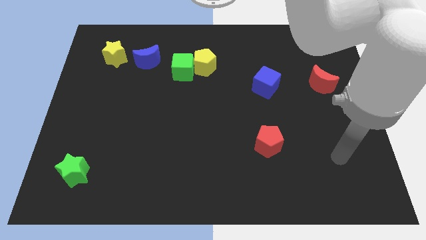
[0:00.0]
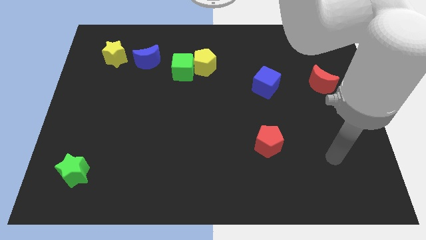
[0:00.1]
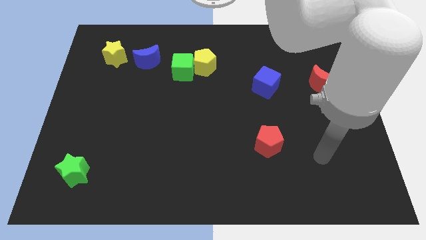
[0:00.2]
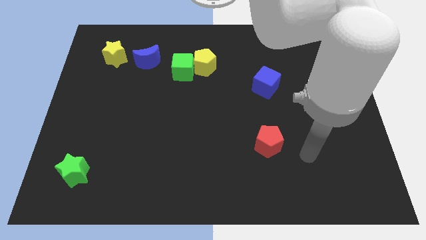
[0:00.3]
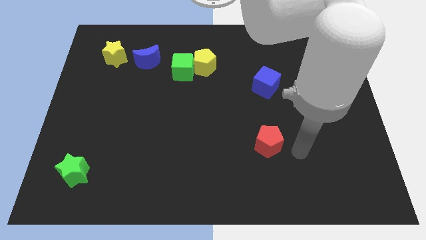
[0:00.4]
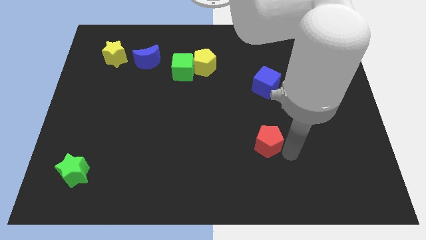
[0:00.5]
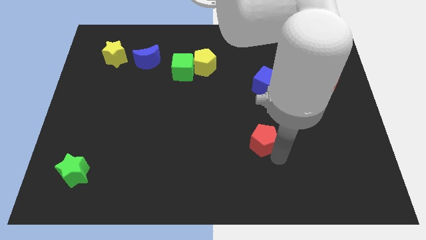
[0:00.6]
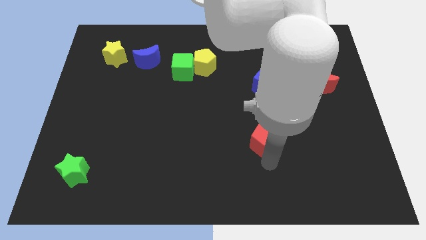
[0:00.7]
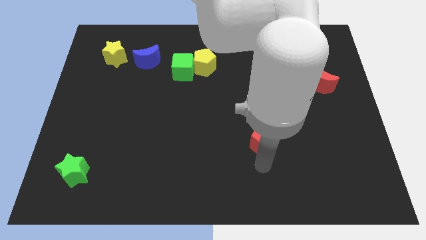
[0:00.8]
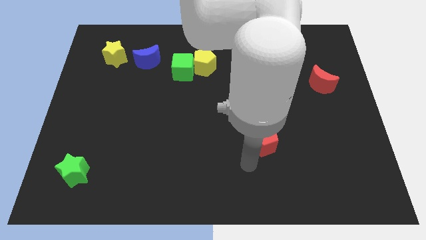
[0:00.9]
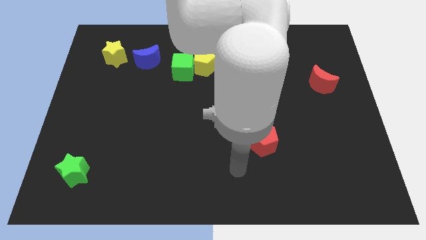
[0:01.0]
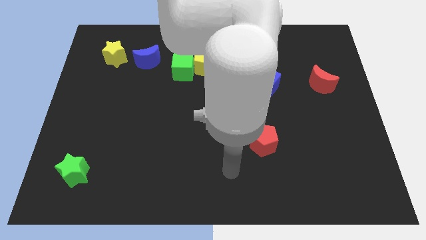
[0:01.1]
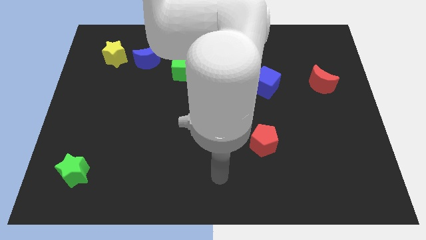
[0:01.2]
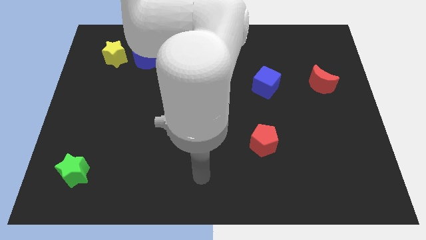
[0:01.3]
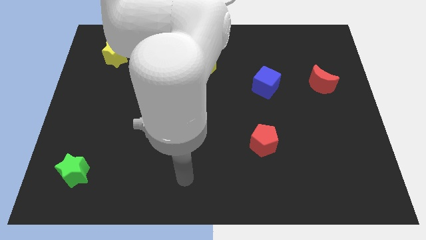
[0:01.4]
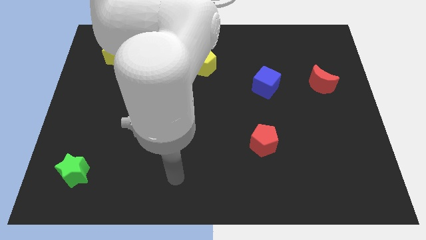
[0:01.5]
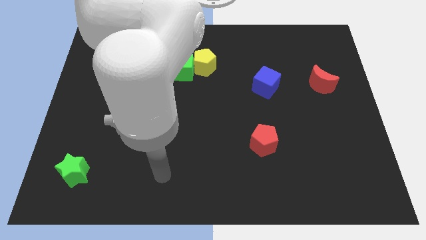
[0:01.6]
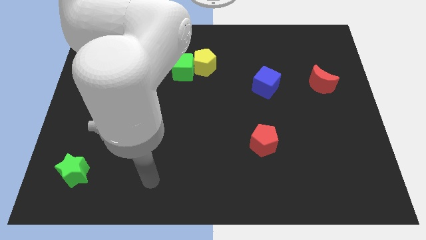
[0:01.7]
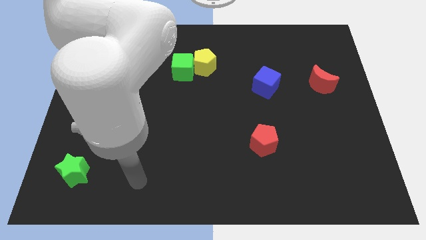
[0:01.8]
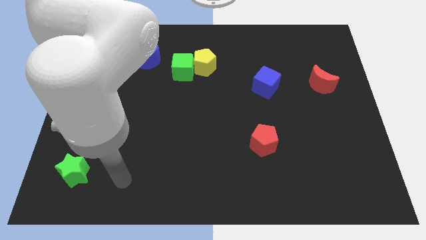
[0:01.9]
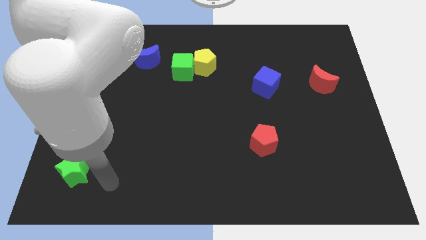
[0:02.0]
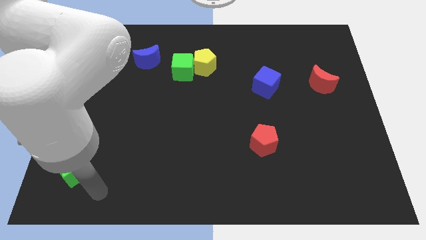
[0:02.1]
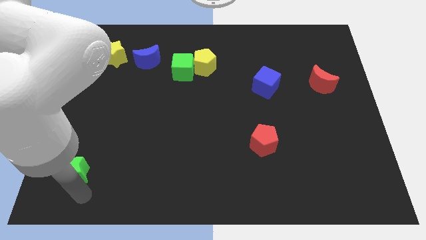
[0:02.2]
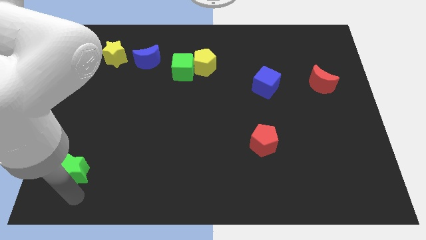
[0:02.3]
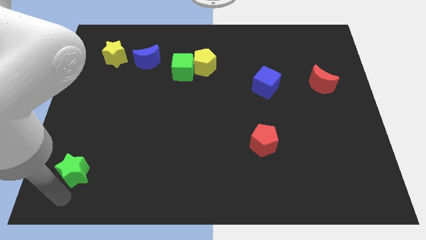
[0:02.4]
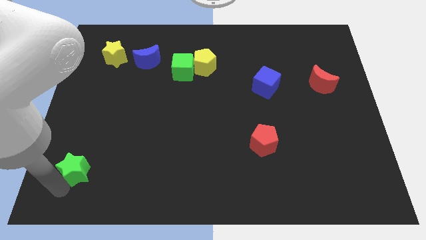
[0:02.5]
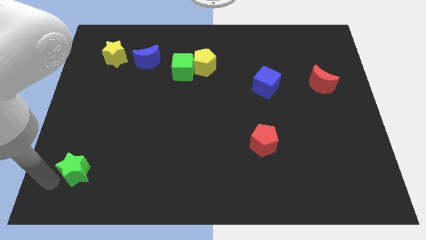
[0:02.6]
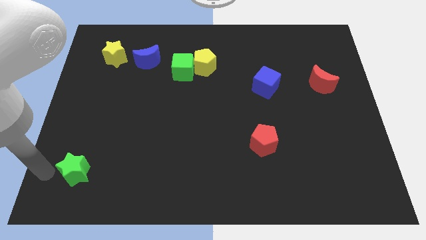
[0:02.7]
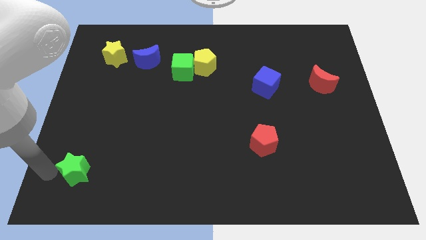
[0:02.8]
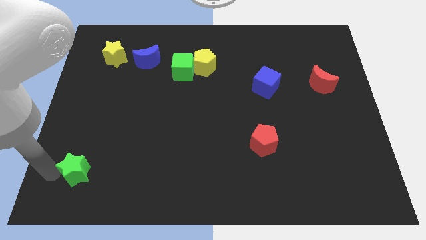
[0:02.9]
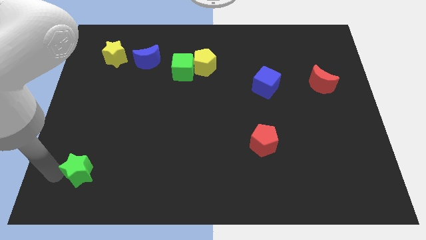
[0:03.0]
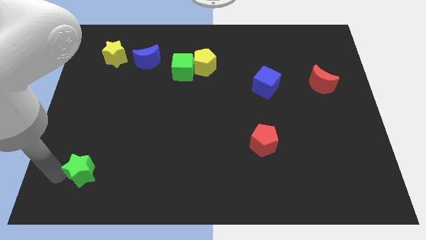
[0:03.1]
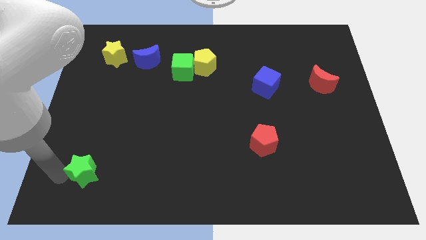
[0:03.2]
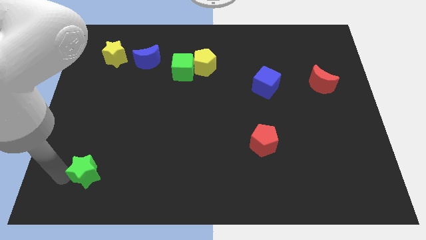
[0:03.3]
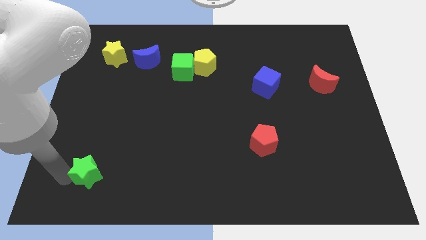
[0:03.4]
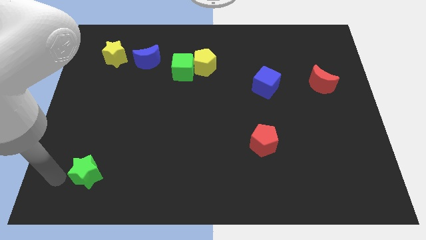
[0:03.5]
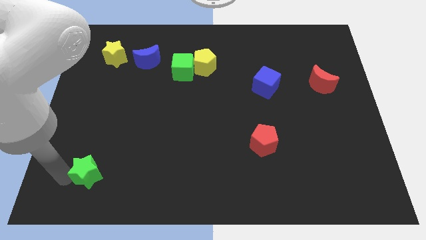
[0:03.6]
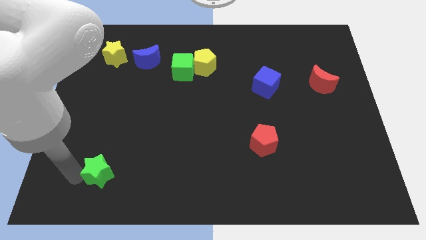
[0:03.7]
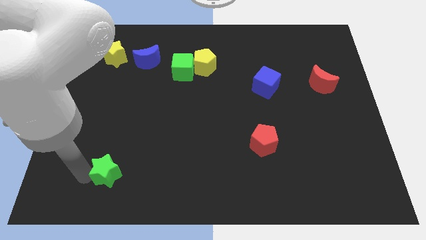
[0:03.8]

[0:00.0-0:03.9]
slide the green star a bit to the right

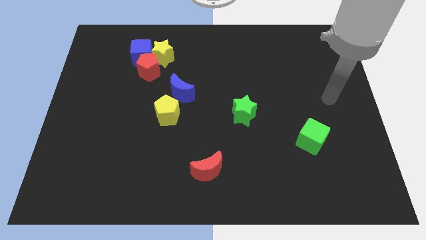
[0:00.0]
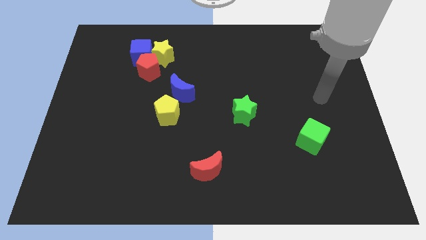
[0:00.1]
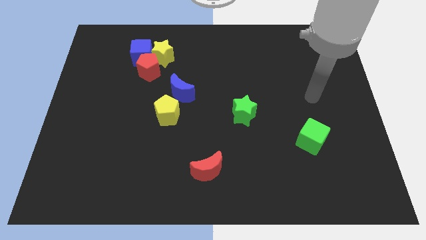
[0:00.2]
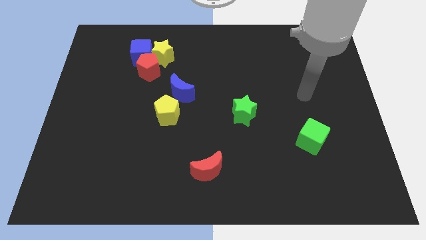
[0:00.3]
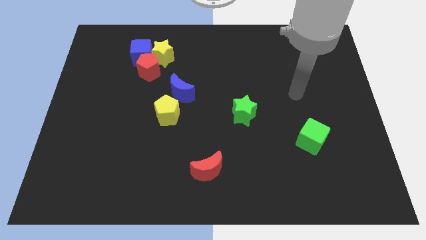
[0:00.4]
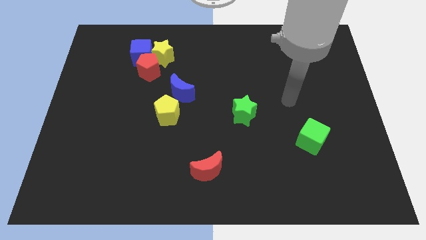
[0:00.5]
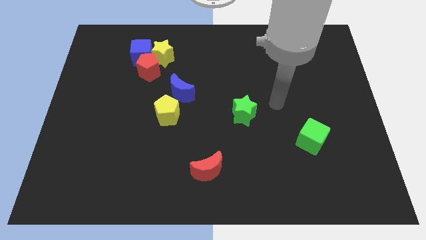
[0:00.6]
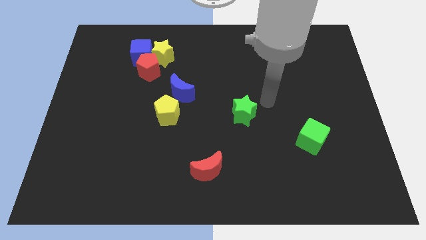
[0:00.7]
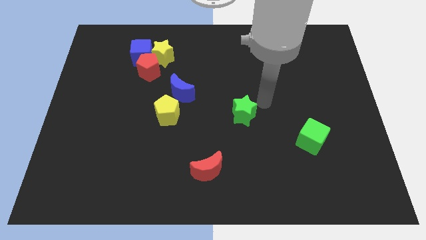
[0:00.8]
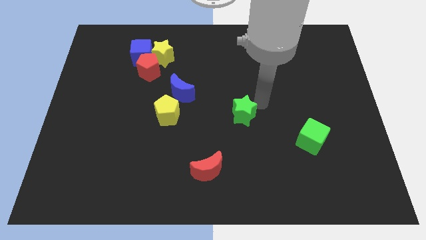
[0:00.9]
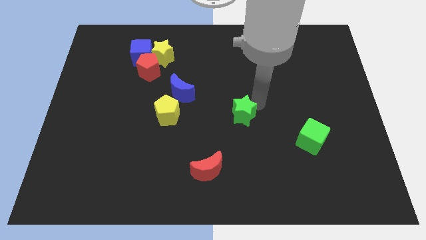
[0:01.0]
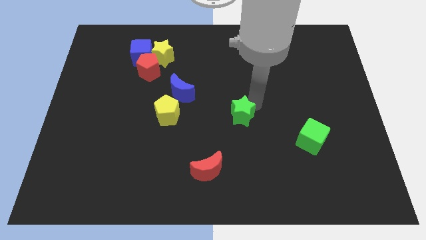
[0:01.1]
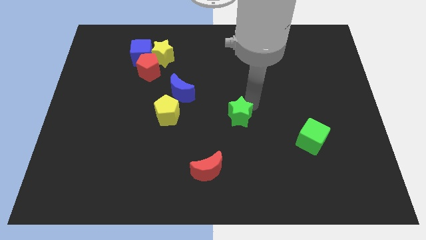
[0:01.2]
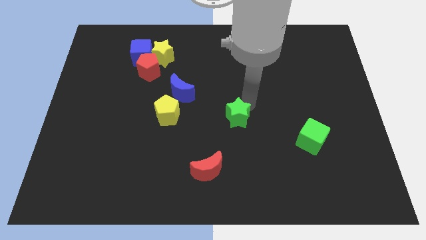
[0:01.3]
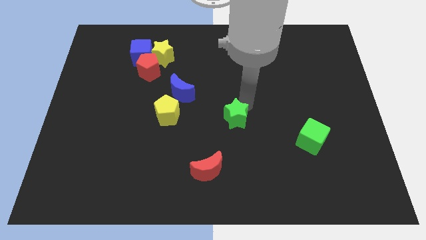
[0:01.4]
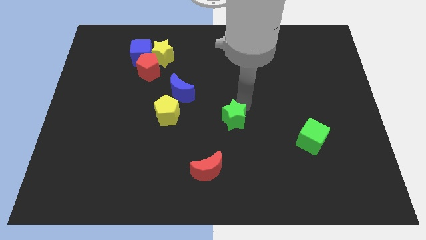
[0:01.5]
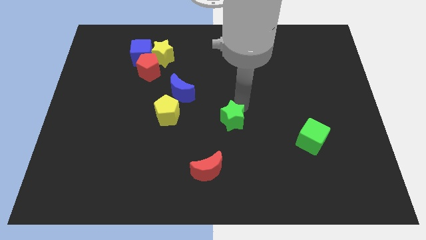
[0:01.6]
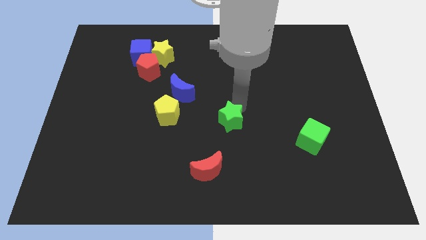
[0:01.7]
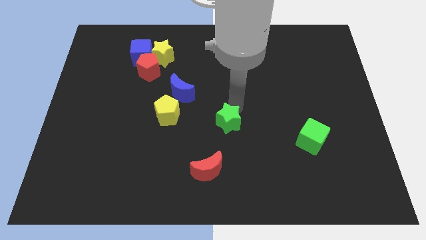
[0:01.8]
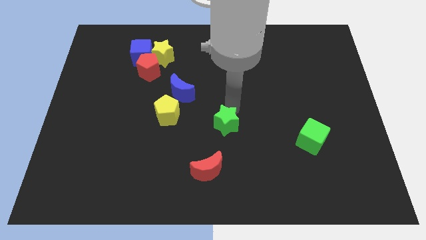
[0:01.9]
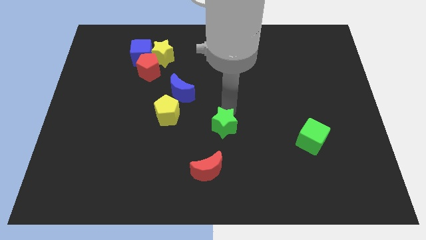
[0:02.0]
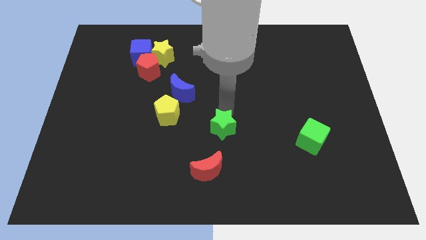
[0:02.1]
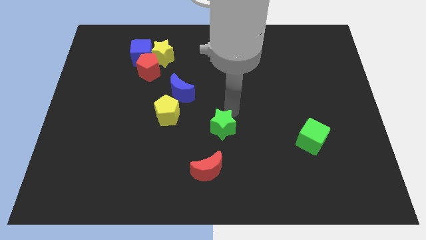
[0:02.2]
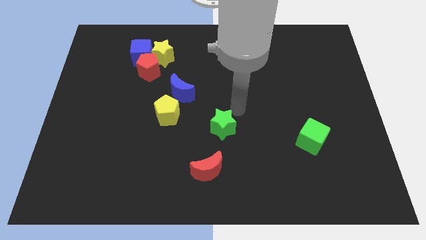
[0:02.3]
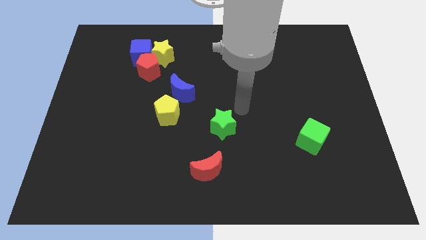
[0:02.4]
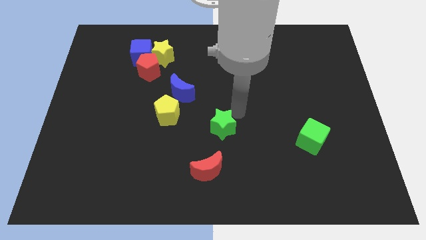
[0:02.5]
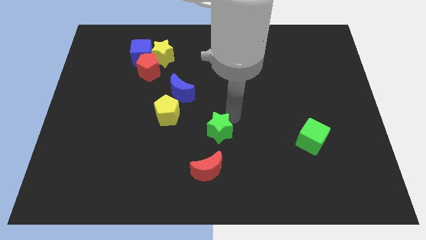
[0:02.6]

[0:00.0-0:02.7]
slightly slide the green star down and to the left diagonally

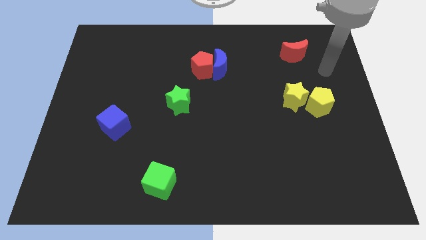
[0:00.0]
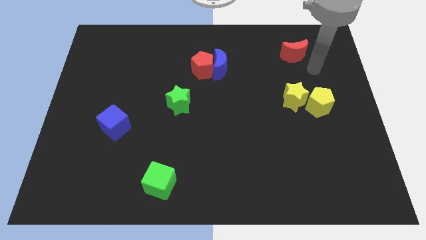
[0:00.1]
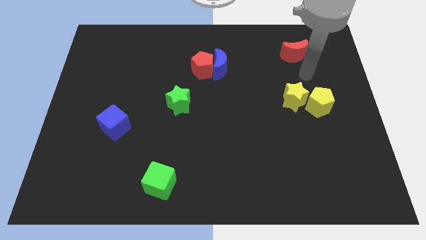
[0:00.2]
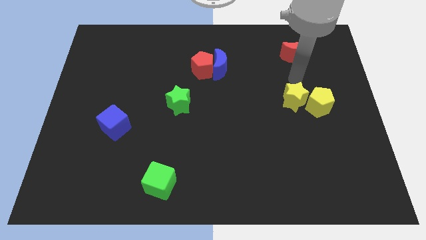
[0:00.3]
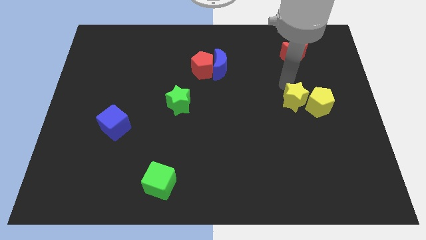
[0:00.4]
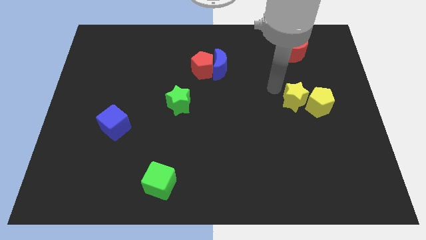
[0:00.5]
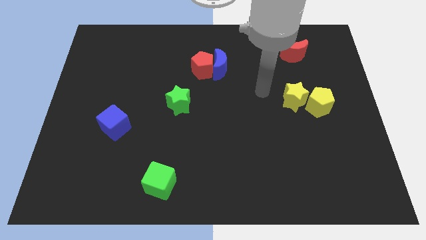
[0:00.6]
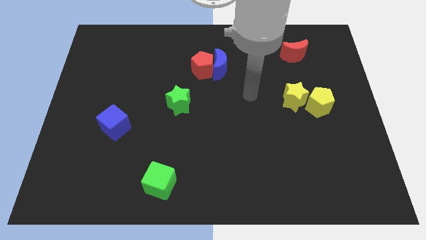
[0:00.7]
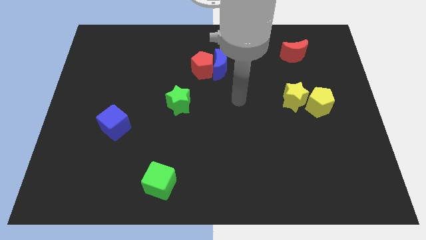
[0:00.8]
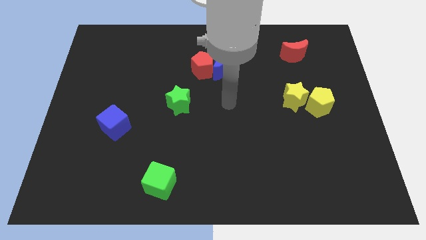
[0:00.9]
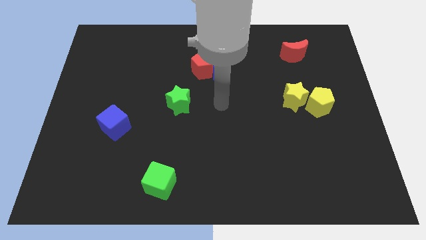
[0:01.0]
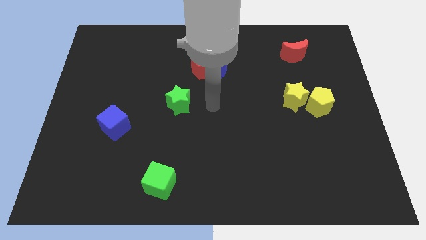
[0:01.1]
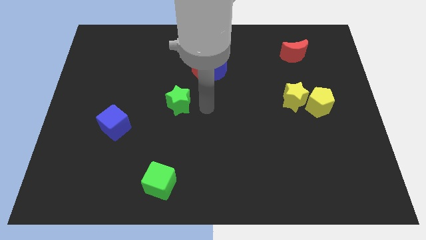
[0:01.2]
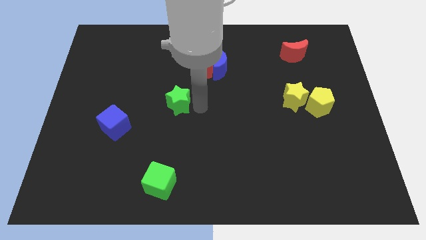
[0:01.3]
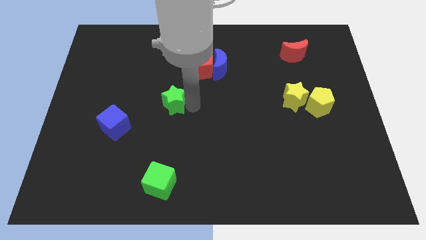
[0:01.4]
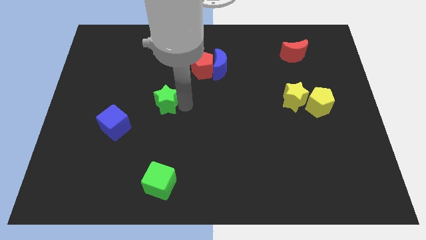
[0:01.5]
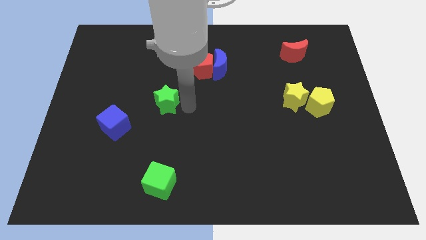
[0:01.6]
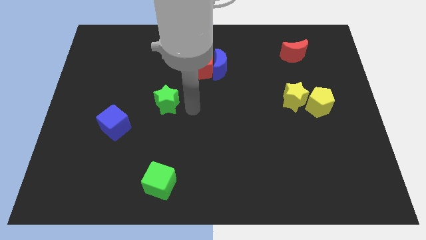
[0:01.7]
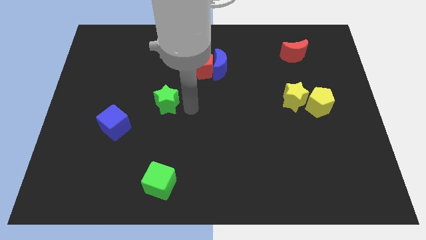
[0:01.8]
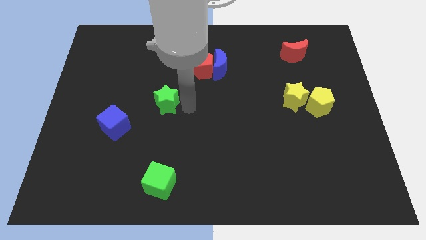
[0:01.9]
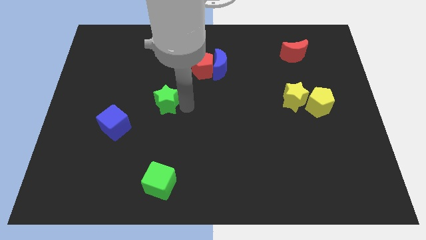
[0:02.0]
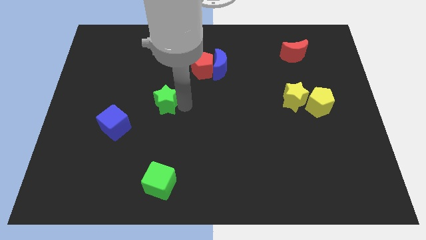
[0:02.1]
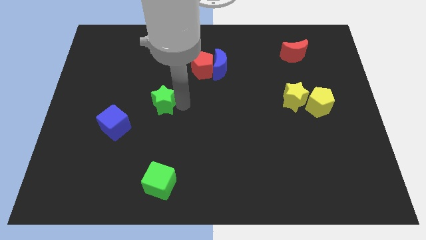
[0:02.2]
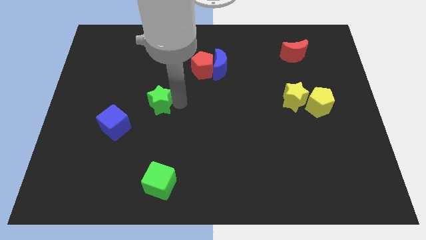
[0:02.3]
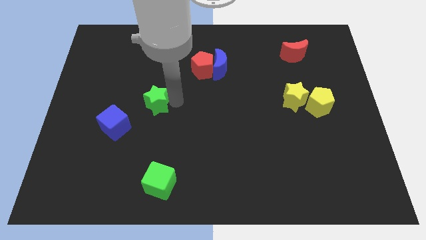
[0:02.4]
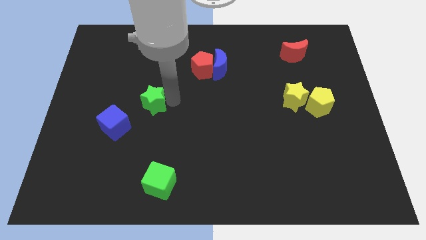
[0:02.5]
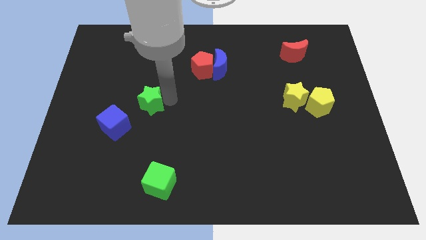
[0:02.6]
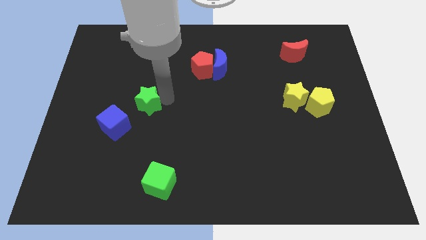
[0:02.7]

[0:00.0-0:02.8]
push the green star a little bit to the left
